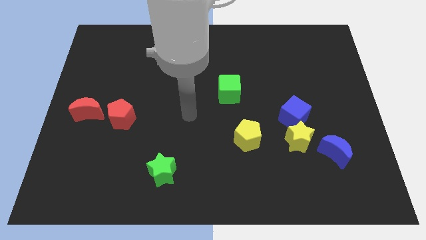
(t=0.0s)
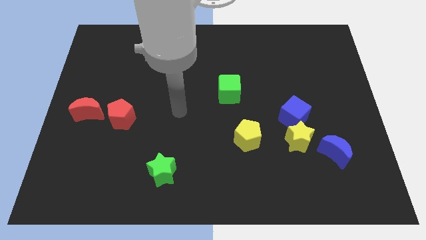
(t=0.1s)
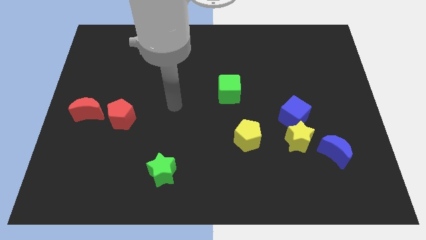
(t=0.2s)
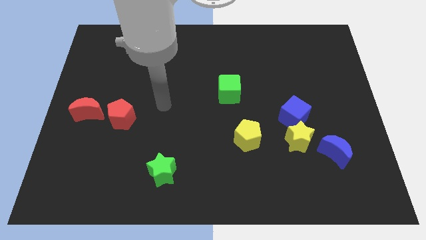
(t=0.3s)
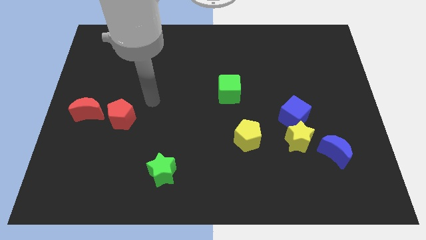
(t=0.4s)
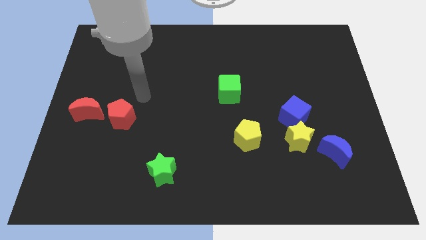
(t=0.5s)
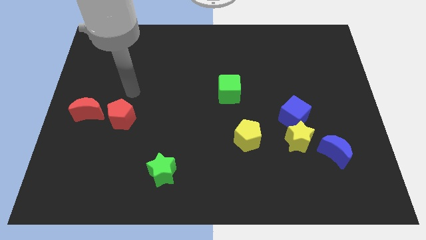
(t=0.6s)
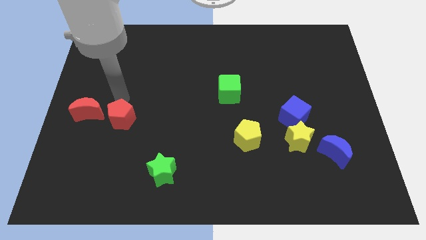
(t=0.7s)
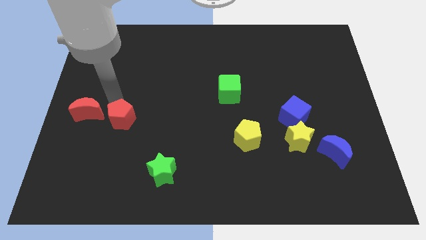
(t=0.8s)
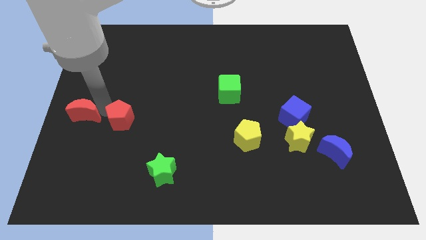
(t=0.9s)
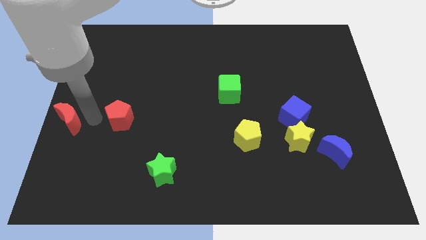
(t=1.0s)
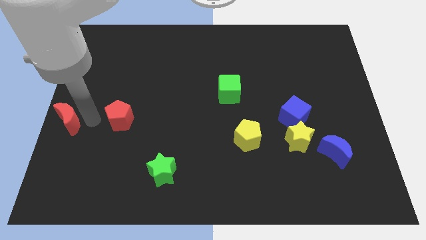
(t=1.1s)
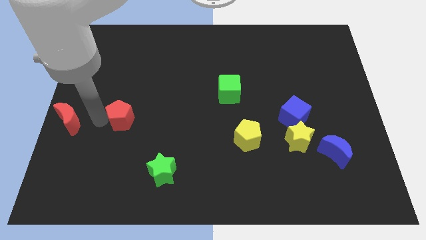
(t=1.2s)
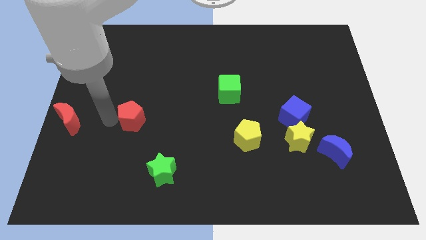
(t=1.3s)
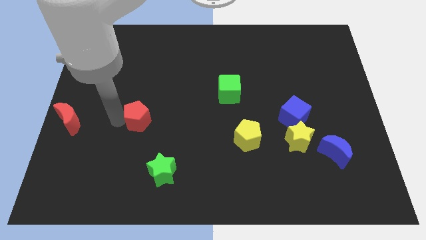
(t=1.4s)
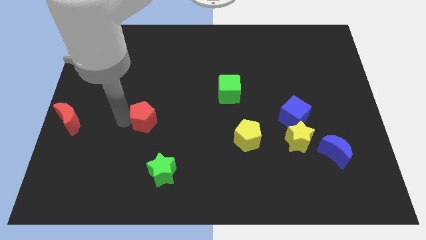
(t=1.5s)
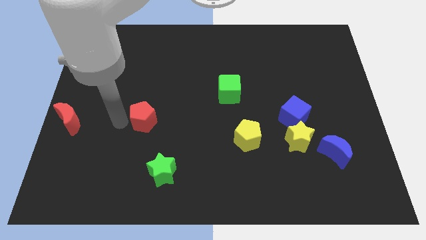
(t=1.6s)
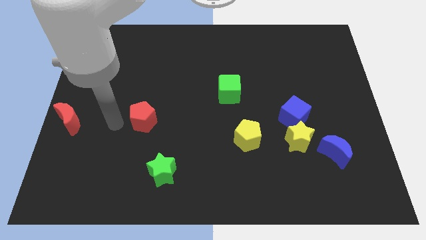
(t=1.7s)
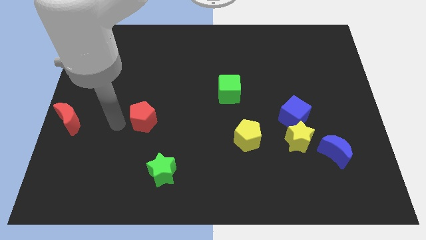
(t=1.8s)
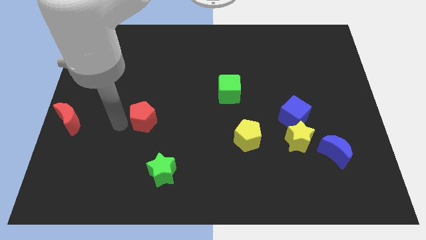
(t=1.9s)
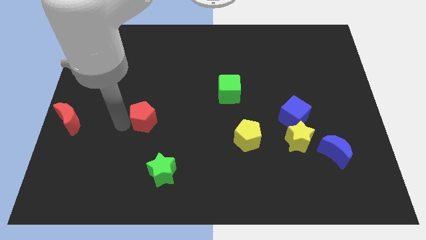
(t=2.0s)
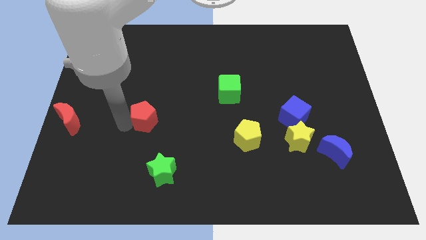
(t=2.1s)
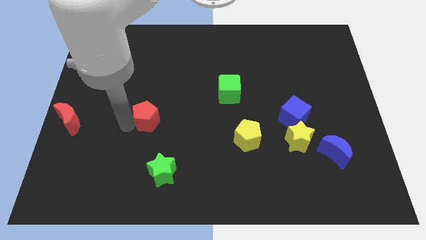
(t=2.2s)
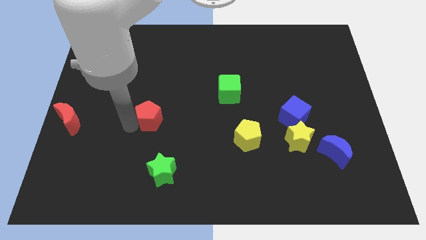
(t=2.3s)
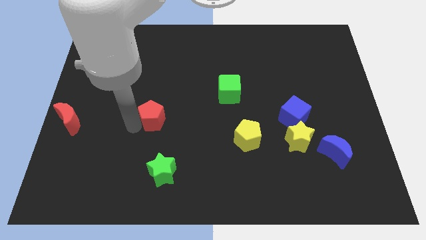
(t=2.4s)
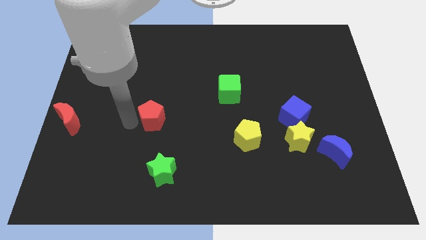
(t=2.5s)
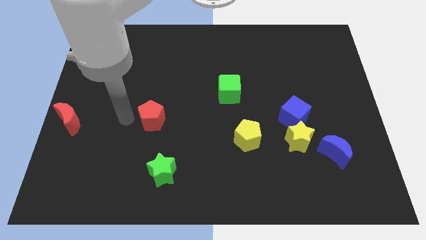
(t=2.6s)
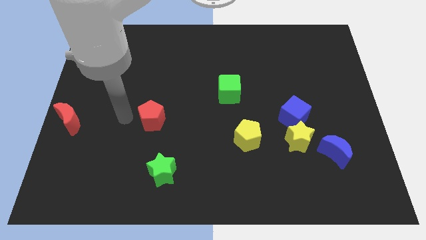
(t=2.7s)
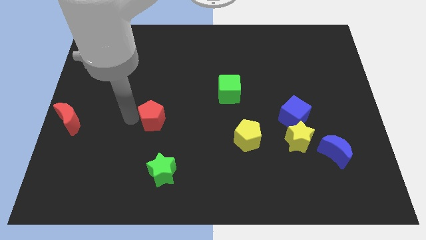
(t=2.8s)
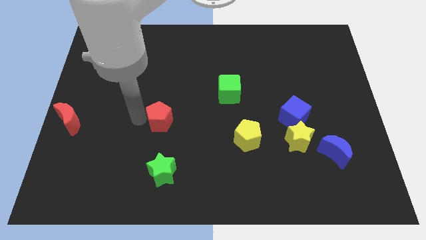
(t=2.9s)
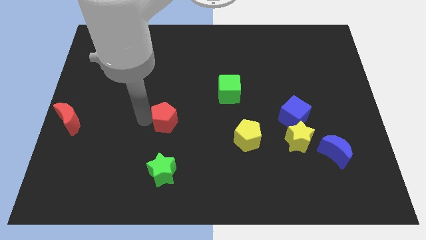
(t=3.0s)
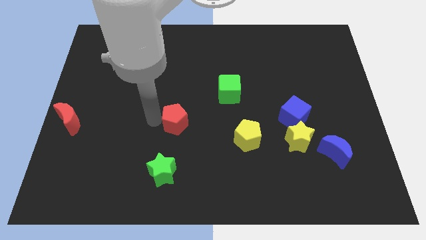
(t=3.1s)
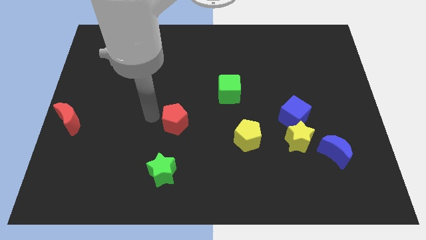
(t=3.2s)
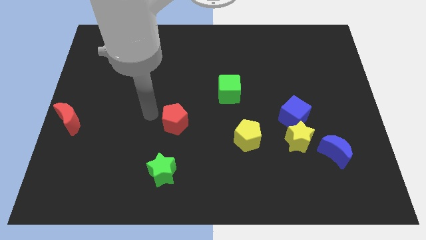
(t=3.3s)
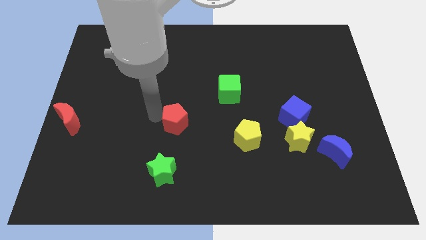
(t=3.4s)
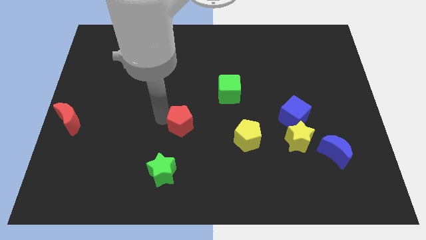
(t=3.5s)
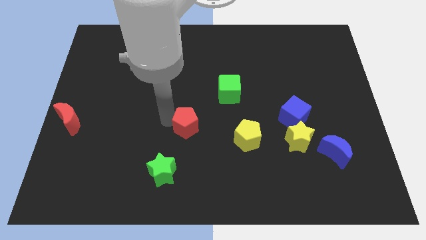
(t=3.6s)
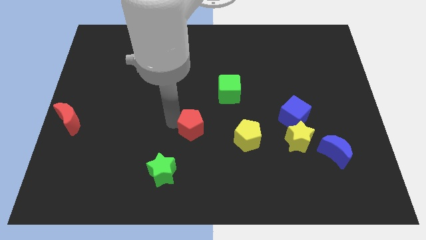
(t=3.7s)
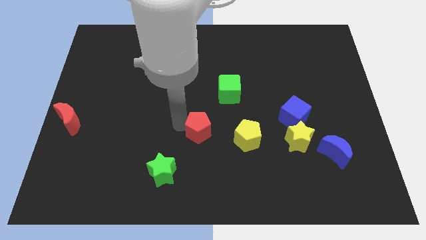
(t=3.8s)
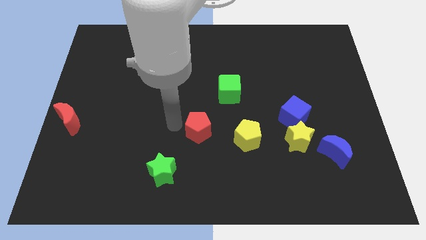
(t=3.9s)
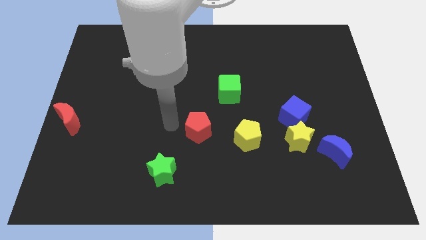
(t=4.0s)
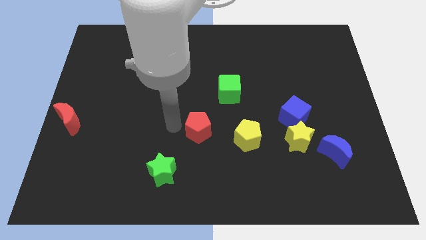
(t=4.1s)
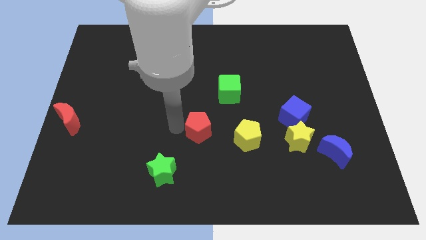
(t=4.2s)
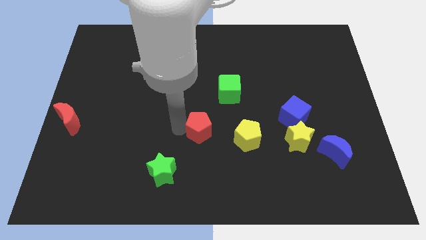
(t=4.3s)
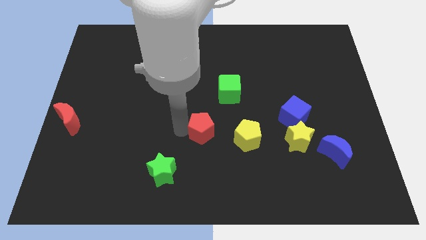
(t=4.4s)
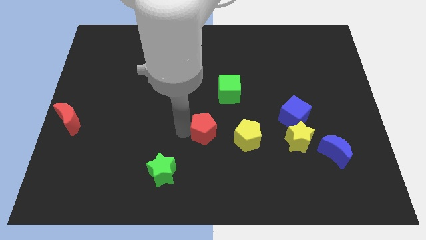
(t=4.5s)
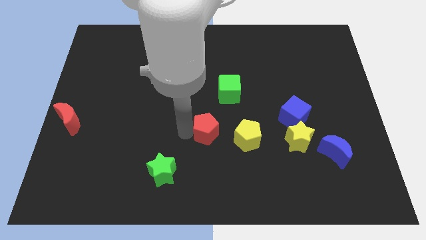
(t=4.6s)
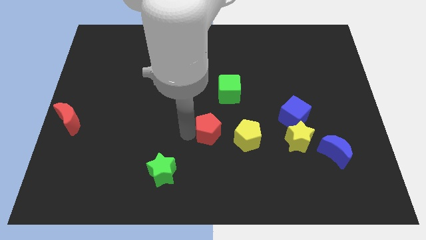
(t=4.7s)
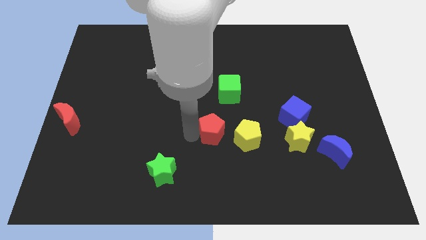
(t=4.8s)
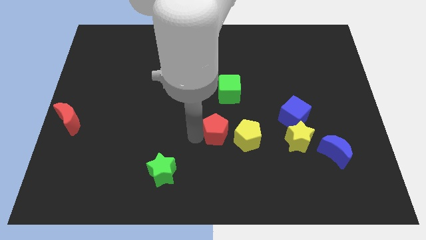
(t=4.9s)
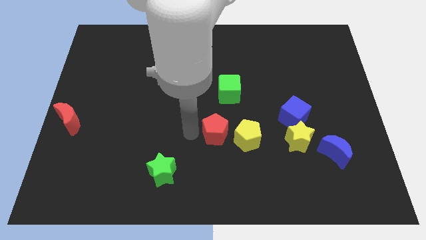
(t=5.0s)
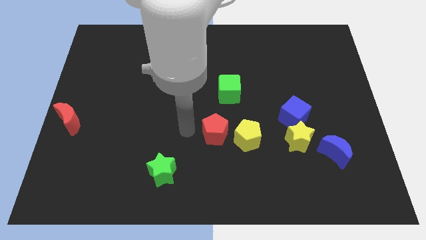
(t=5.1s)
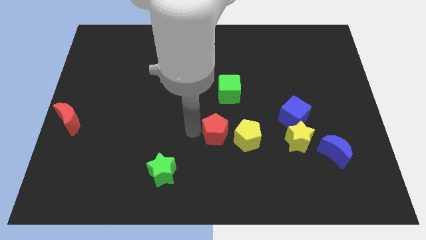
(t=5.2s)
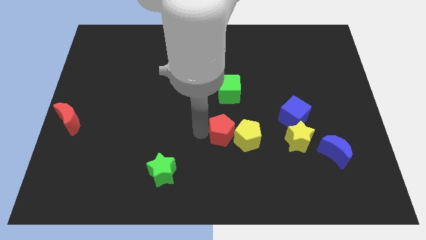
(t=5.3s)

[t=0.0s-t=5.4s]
put the red pentagon to the yellow pentagon

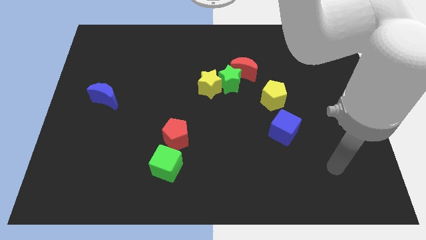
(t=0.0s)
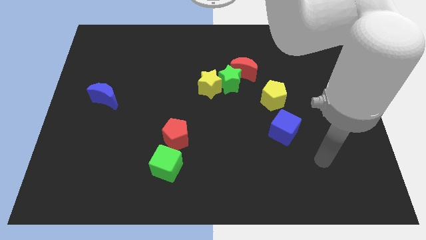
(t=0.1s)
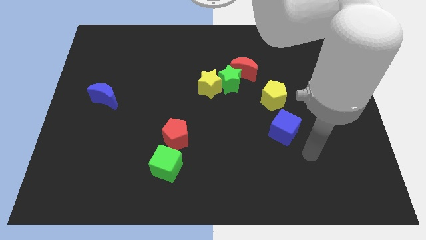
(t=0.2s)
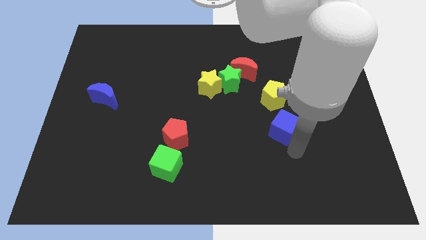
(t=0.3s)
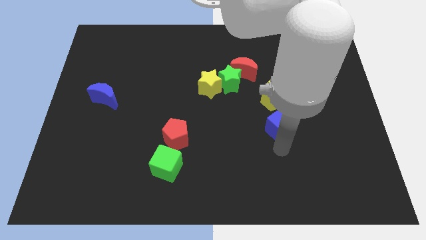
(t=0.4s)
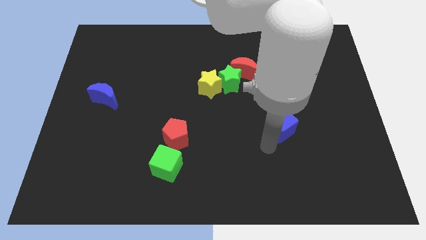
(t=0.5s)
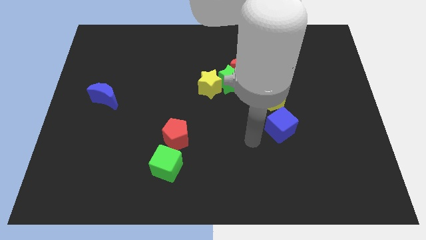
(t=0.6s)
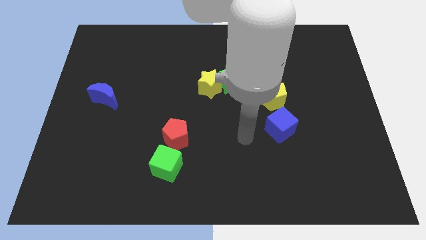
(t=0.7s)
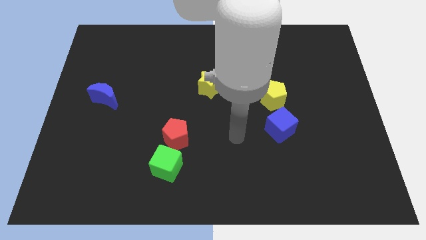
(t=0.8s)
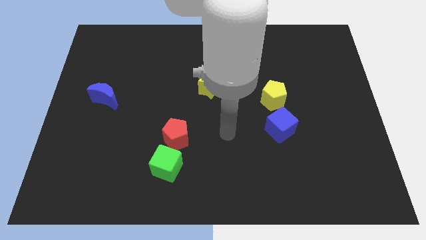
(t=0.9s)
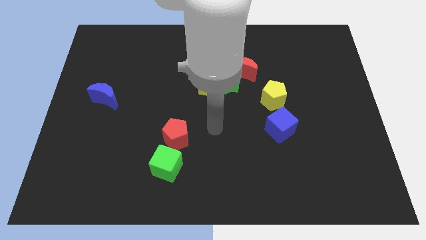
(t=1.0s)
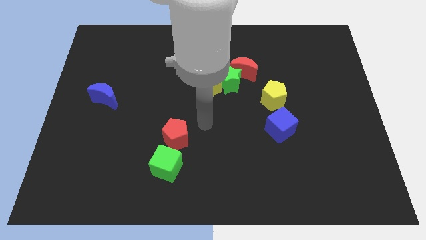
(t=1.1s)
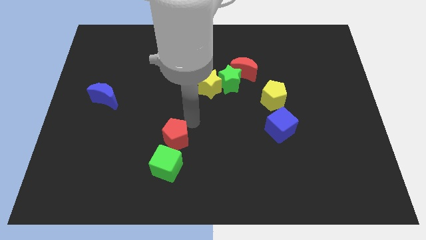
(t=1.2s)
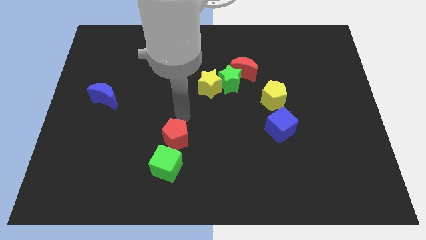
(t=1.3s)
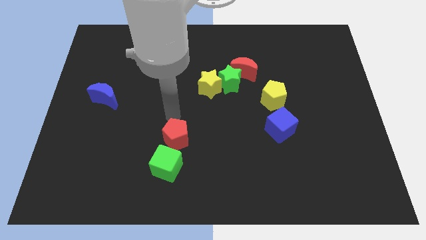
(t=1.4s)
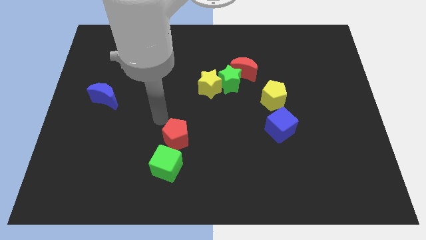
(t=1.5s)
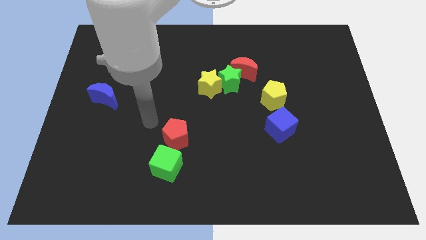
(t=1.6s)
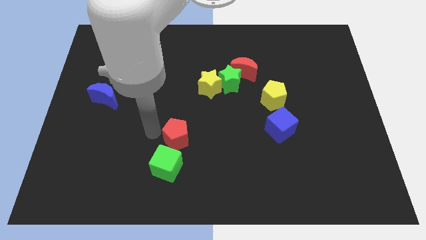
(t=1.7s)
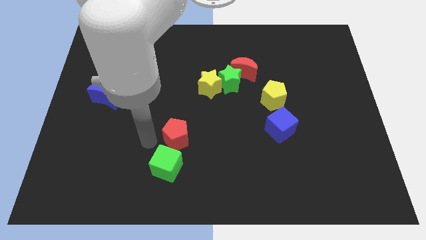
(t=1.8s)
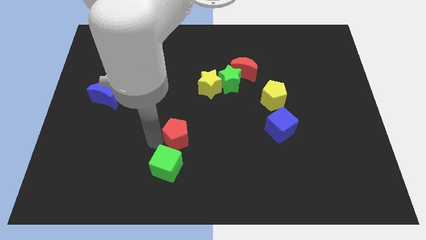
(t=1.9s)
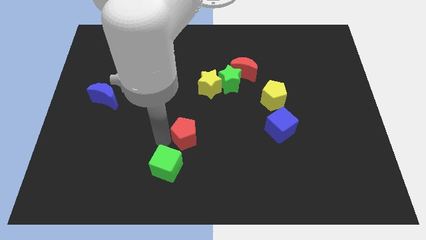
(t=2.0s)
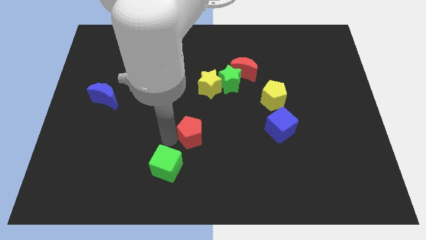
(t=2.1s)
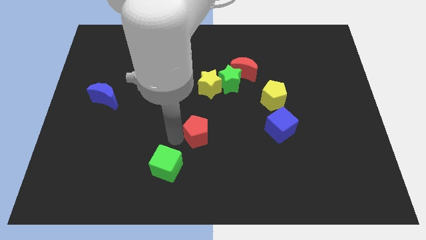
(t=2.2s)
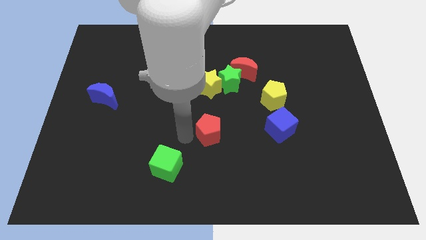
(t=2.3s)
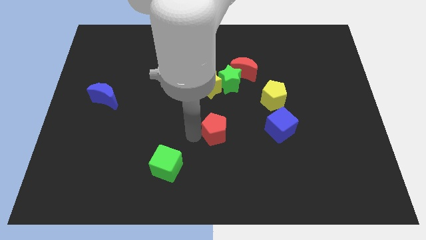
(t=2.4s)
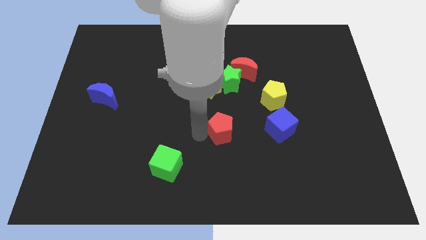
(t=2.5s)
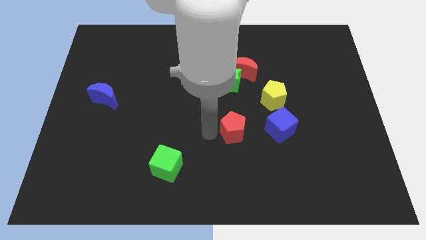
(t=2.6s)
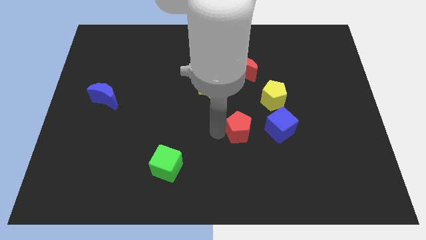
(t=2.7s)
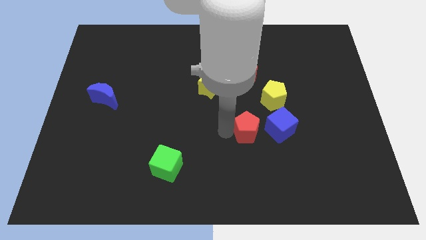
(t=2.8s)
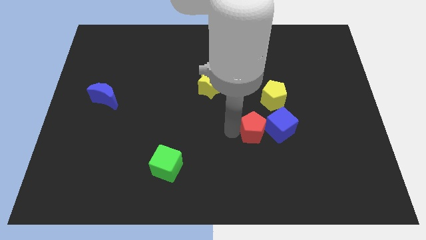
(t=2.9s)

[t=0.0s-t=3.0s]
slide the red pentagon to the blue cube
